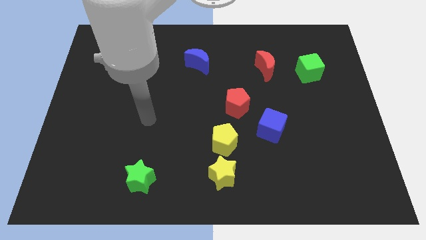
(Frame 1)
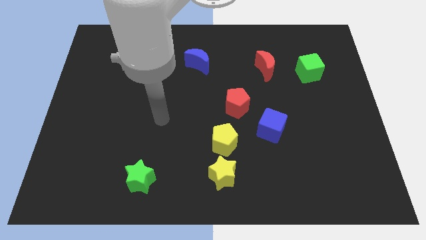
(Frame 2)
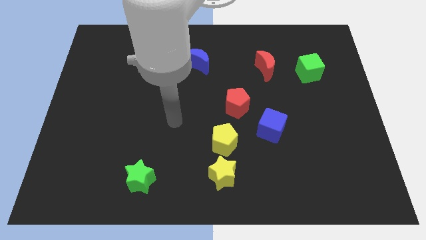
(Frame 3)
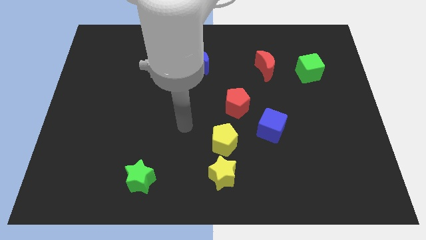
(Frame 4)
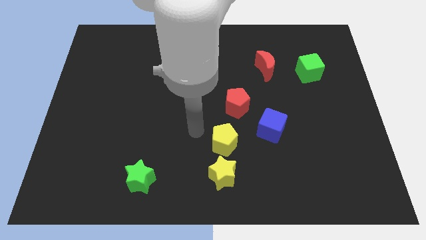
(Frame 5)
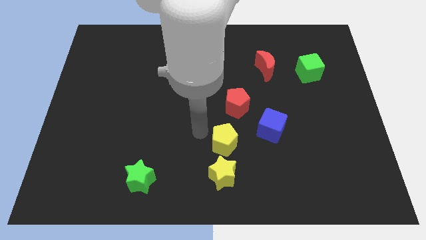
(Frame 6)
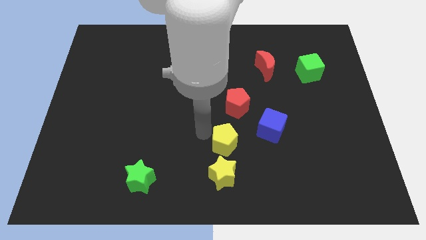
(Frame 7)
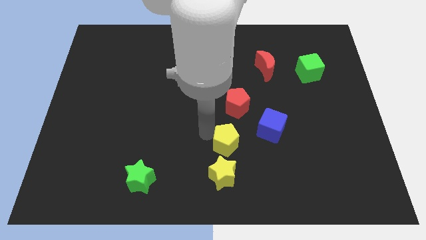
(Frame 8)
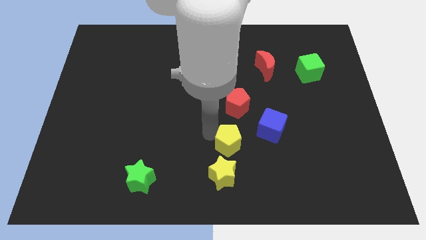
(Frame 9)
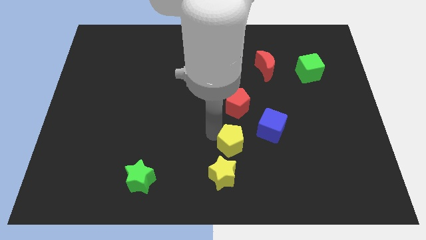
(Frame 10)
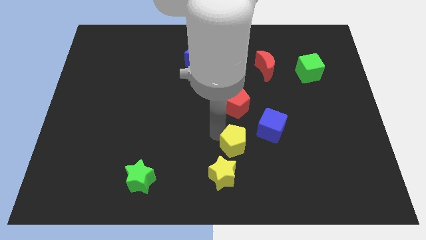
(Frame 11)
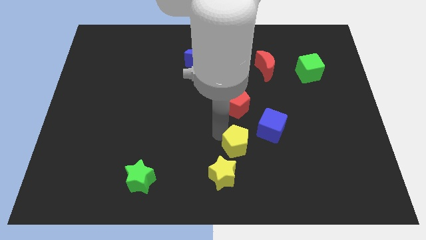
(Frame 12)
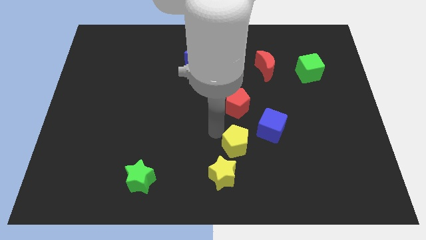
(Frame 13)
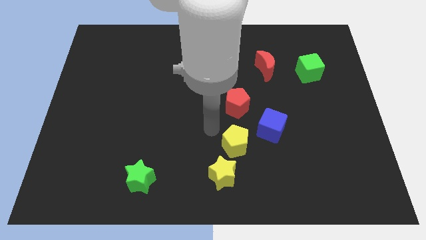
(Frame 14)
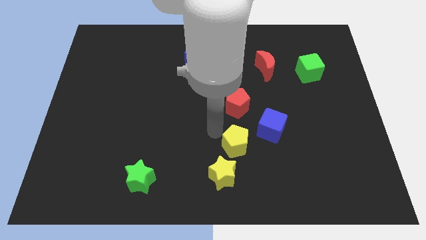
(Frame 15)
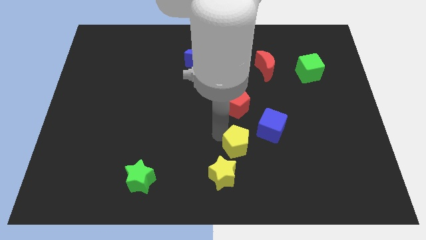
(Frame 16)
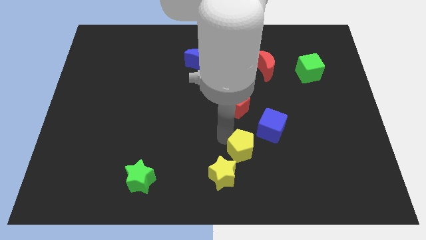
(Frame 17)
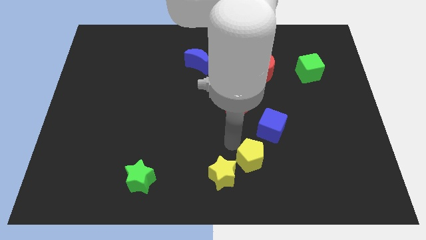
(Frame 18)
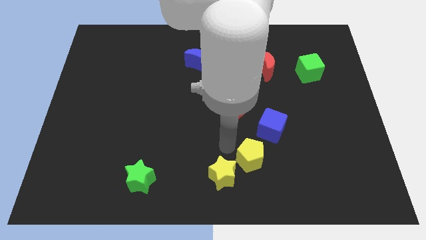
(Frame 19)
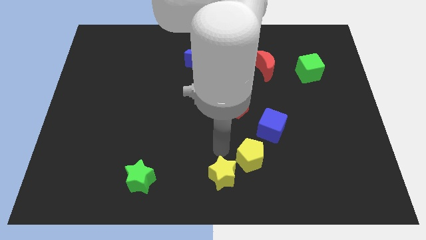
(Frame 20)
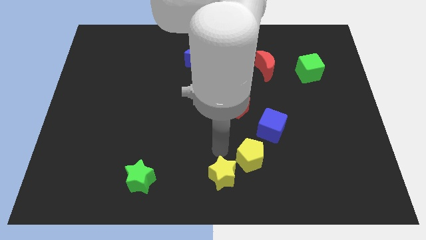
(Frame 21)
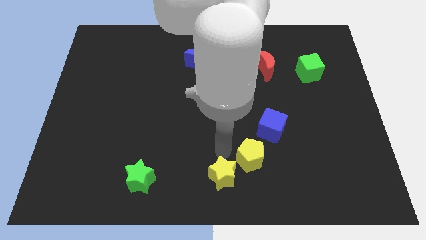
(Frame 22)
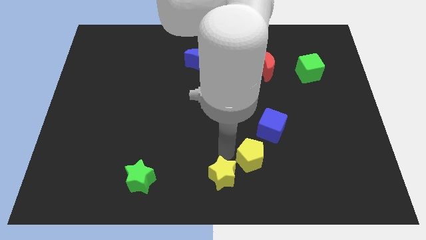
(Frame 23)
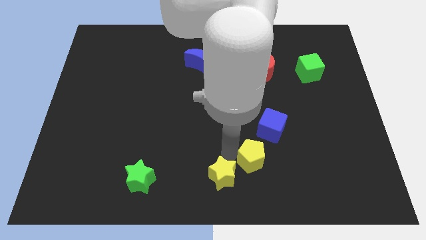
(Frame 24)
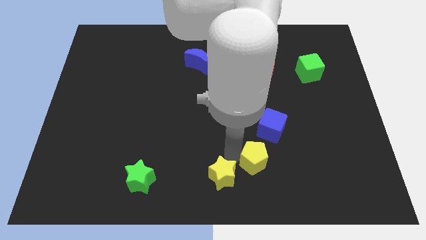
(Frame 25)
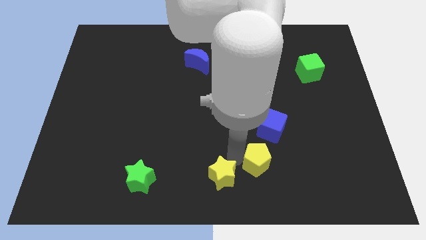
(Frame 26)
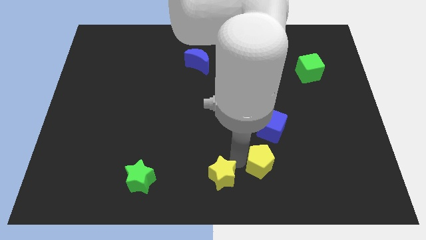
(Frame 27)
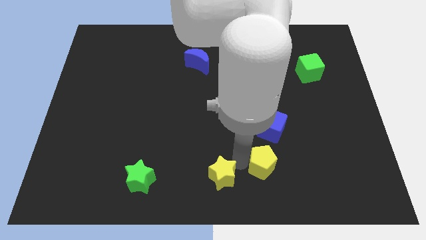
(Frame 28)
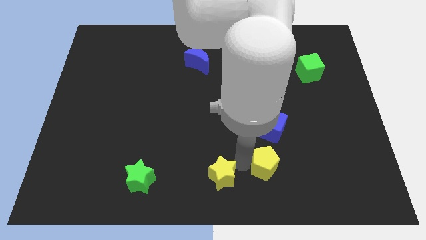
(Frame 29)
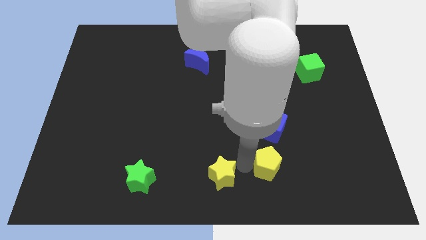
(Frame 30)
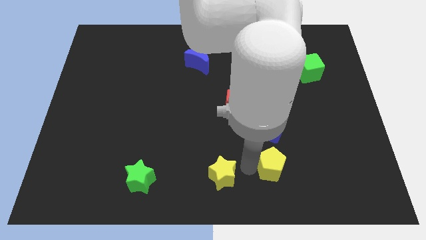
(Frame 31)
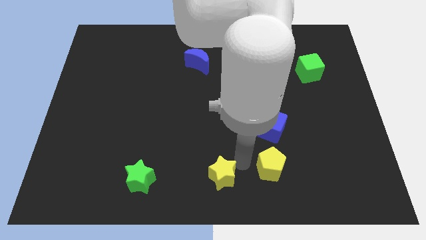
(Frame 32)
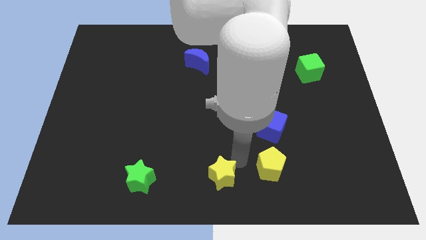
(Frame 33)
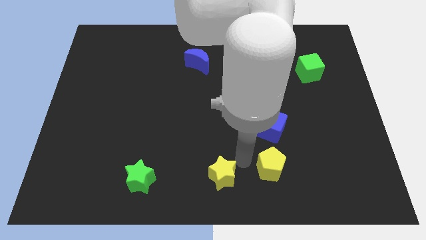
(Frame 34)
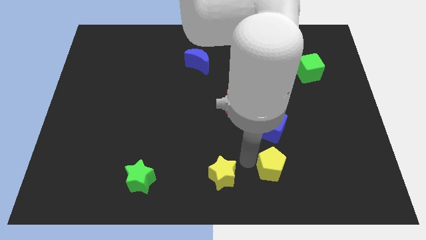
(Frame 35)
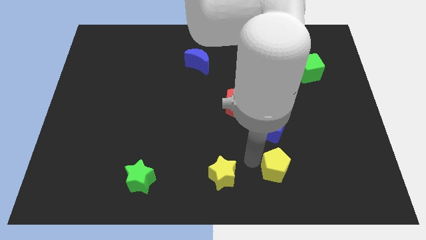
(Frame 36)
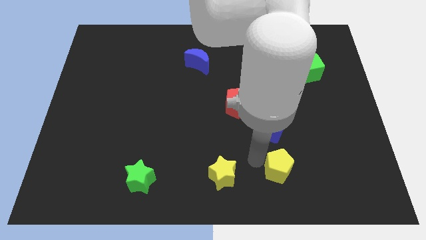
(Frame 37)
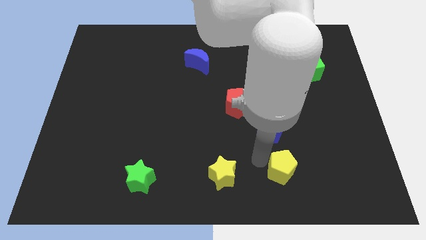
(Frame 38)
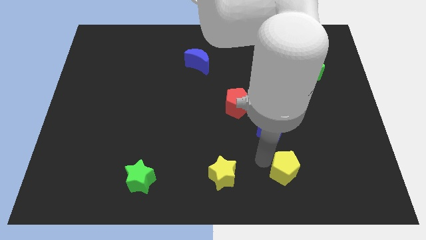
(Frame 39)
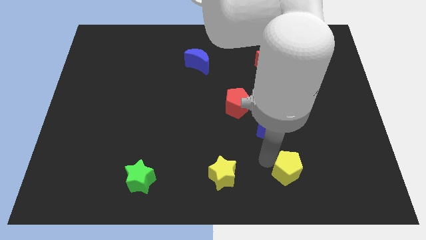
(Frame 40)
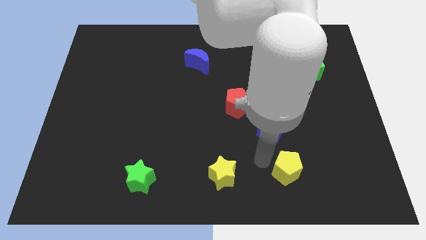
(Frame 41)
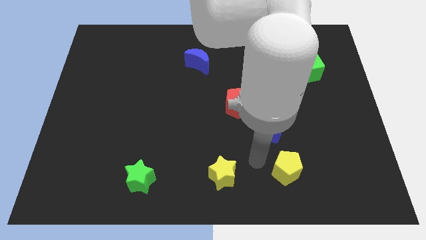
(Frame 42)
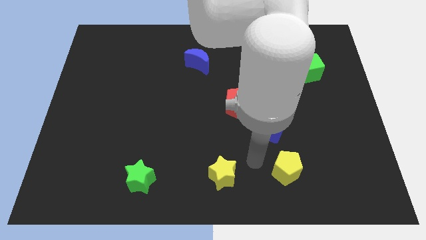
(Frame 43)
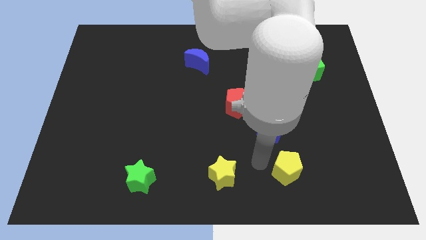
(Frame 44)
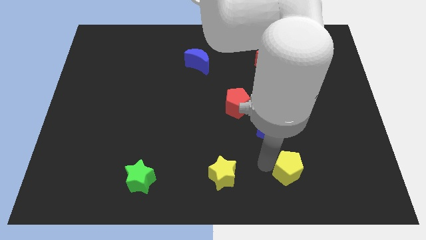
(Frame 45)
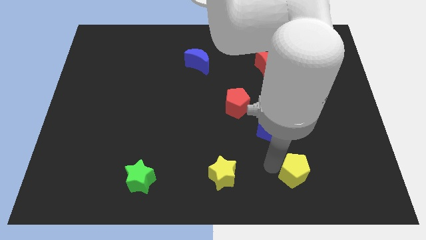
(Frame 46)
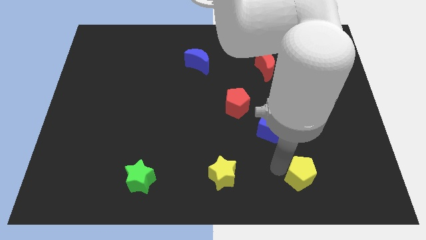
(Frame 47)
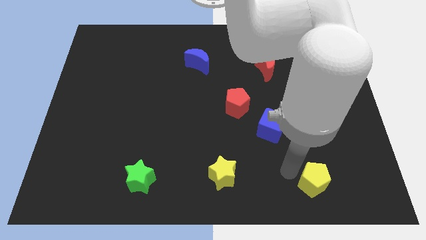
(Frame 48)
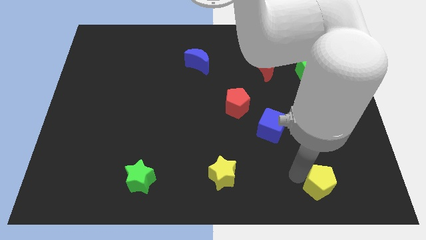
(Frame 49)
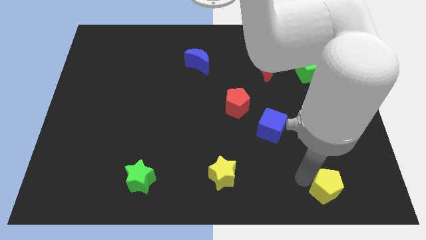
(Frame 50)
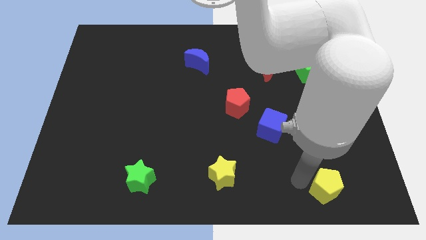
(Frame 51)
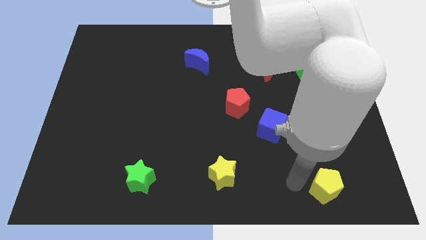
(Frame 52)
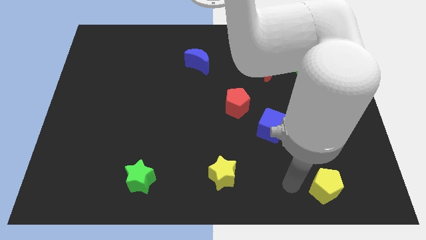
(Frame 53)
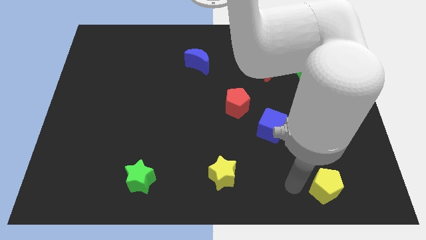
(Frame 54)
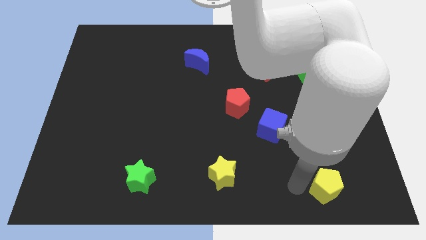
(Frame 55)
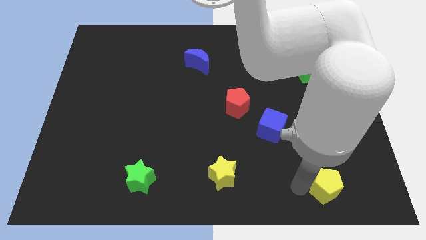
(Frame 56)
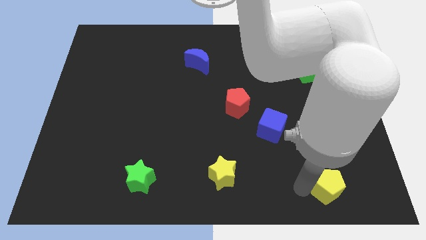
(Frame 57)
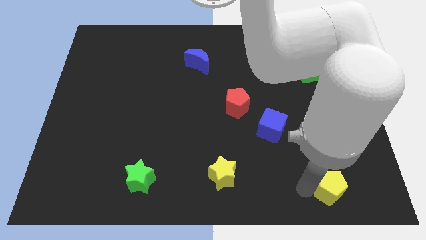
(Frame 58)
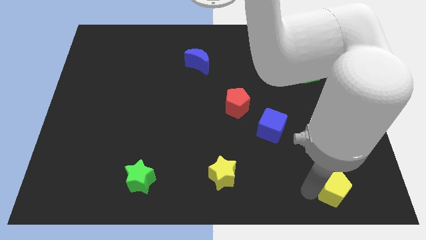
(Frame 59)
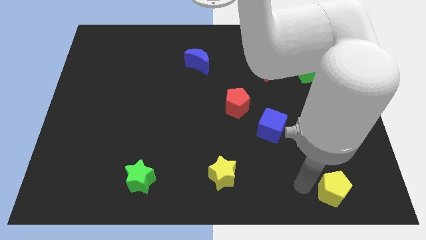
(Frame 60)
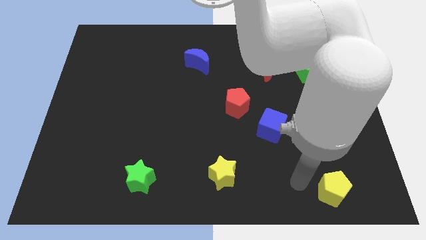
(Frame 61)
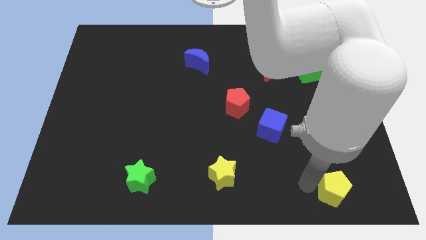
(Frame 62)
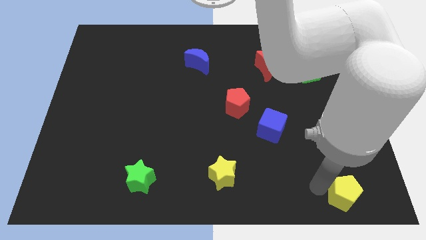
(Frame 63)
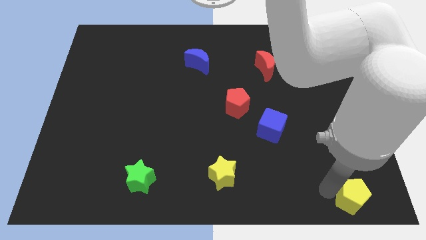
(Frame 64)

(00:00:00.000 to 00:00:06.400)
move the yellow pentagon to the bottom right of the board
